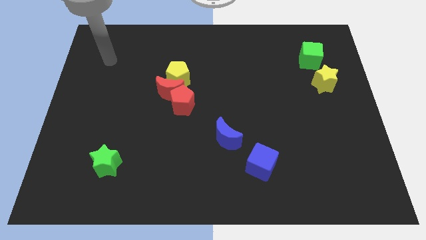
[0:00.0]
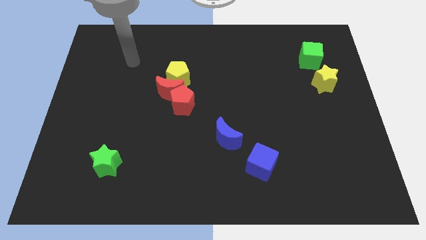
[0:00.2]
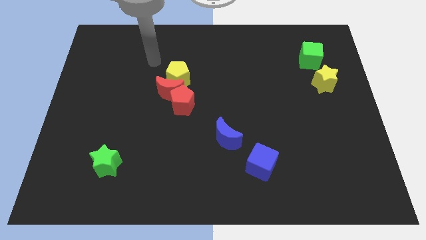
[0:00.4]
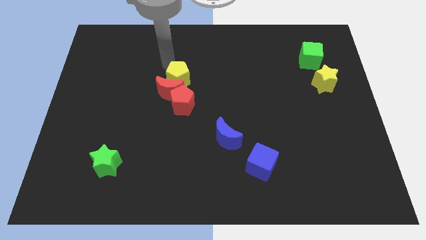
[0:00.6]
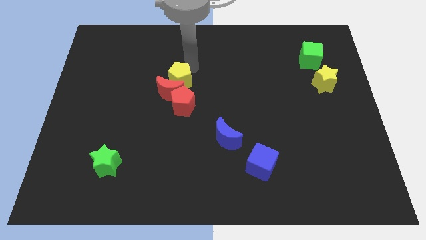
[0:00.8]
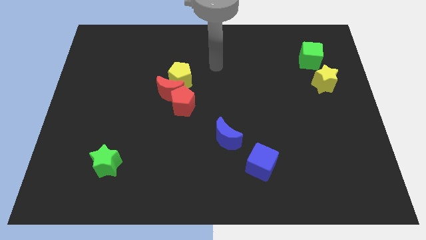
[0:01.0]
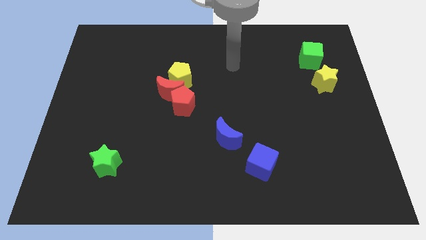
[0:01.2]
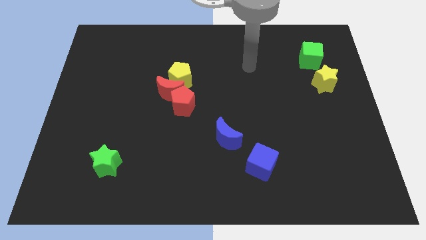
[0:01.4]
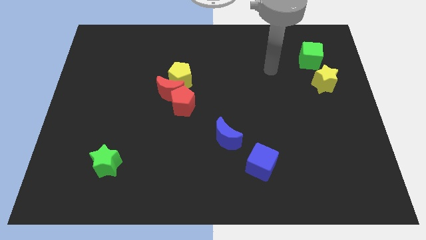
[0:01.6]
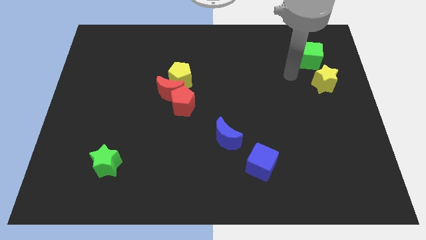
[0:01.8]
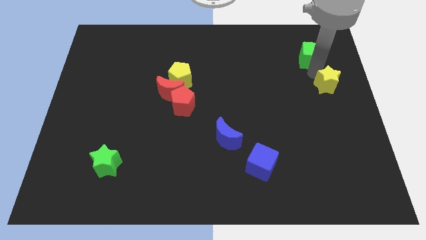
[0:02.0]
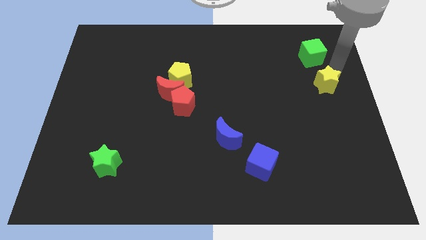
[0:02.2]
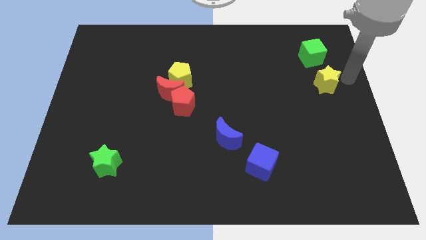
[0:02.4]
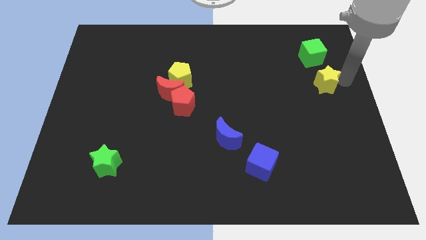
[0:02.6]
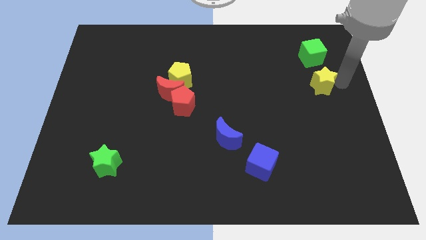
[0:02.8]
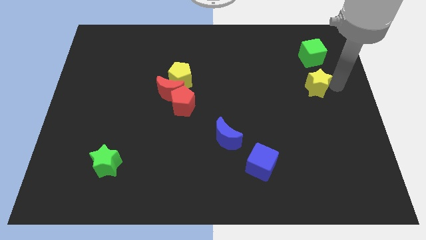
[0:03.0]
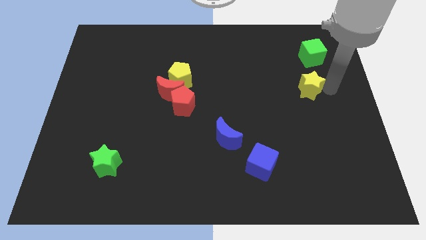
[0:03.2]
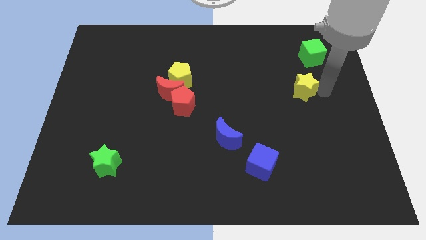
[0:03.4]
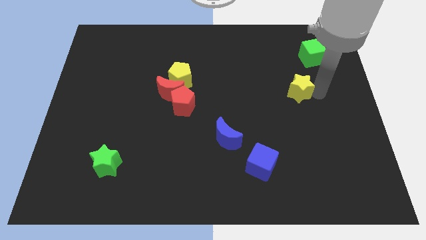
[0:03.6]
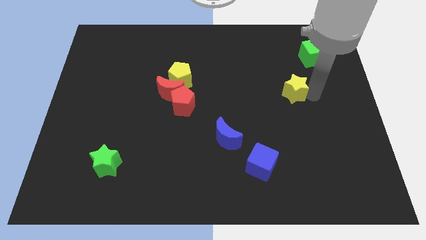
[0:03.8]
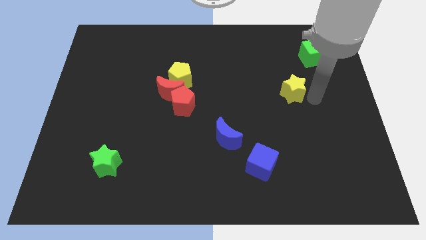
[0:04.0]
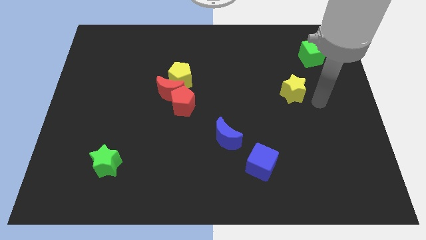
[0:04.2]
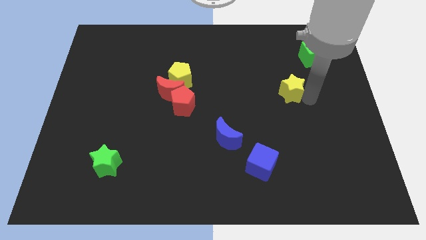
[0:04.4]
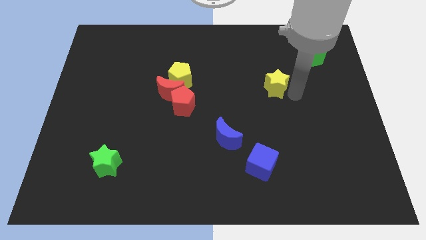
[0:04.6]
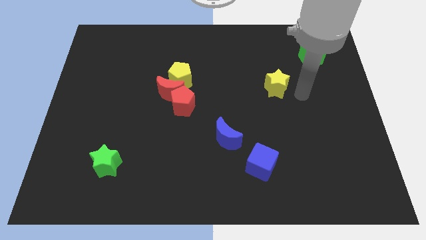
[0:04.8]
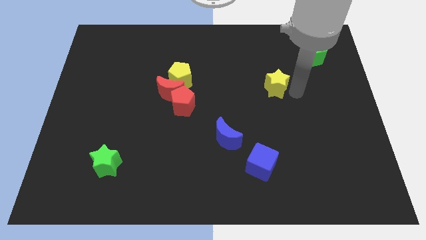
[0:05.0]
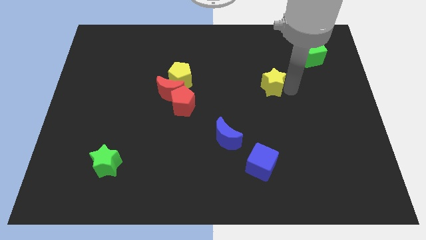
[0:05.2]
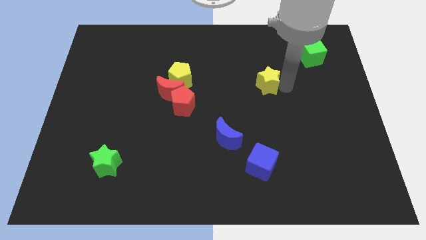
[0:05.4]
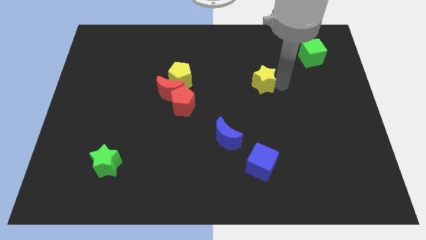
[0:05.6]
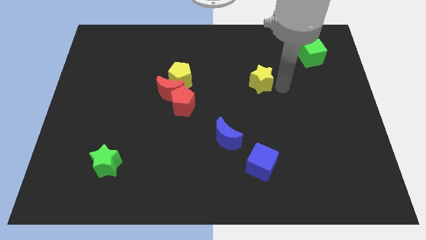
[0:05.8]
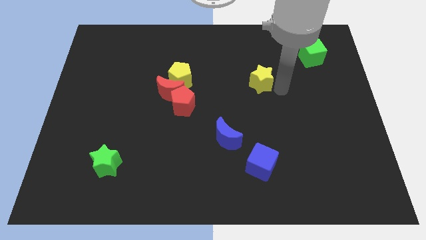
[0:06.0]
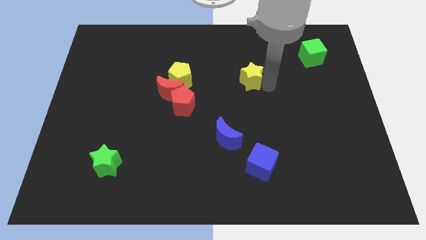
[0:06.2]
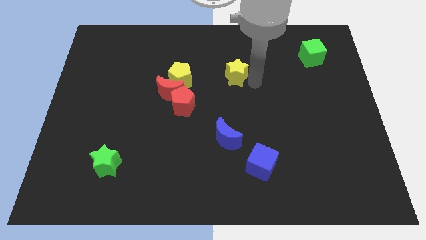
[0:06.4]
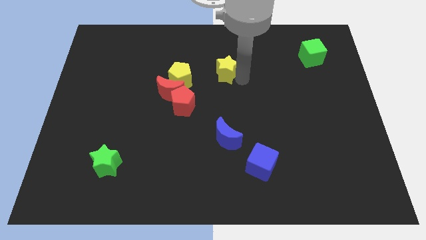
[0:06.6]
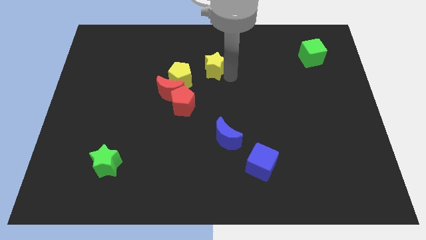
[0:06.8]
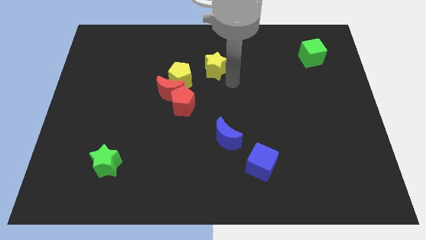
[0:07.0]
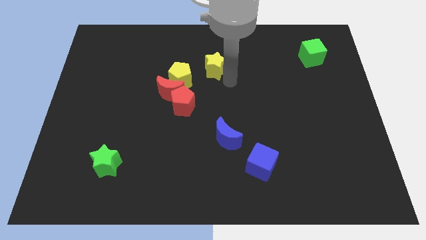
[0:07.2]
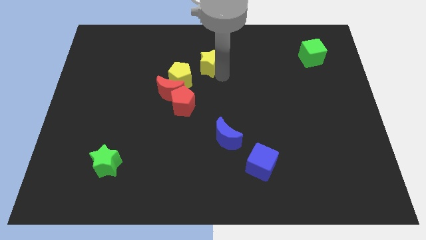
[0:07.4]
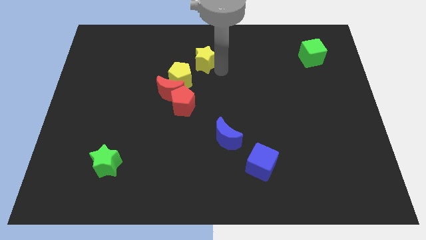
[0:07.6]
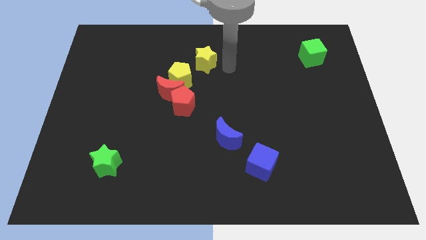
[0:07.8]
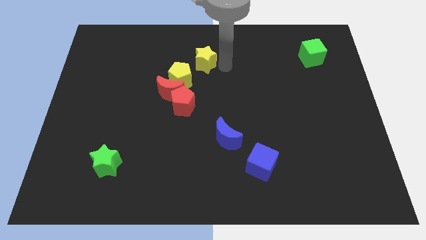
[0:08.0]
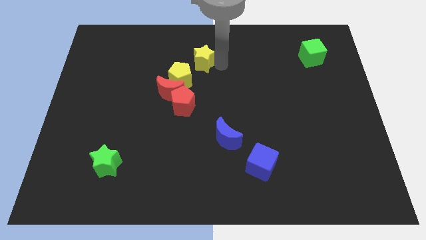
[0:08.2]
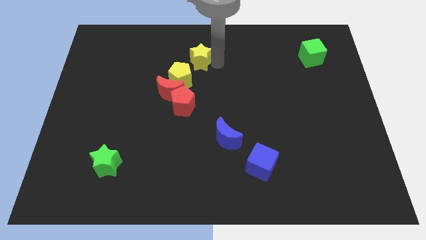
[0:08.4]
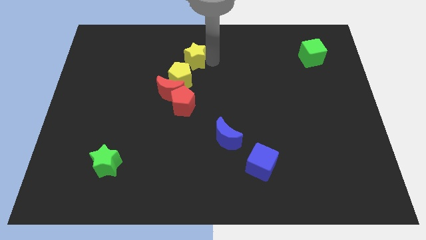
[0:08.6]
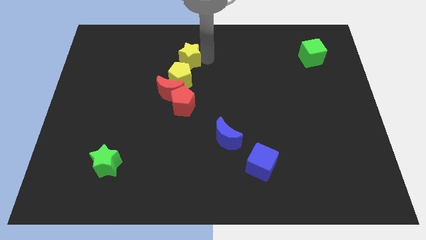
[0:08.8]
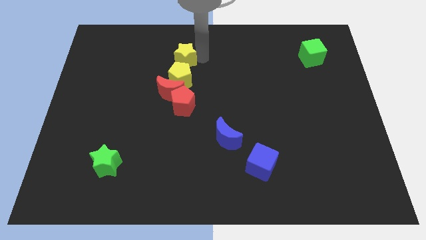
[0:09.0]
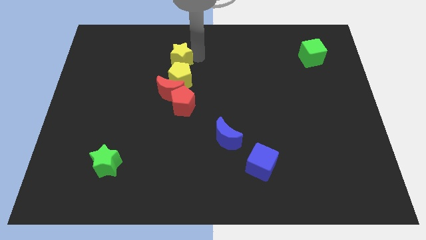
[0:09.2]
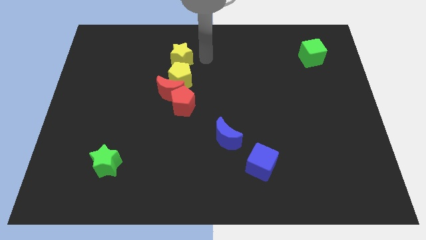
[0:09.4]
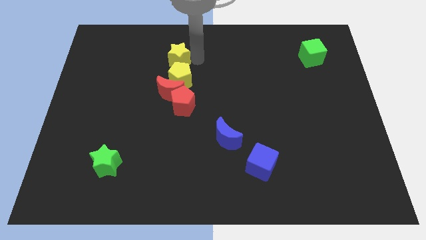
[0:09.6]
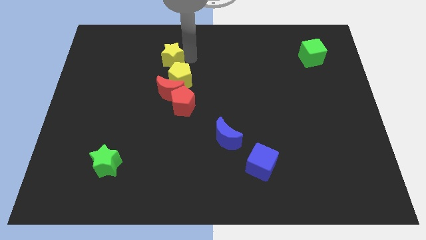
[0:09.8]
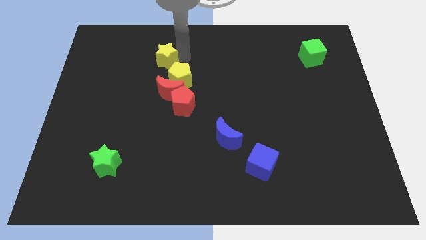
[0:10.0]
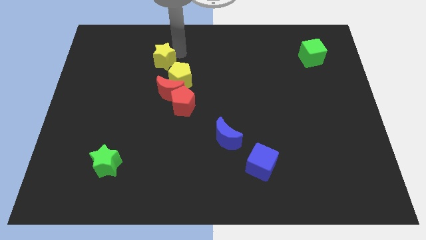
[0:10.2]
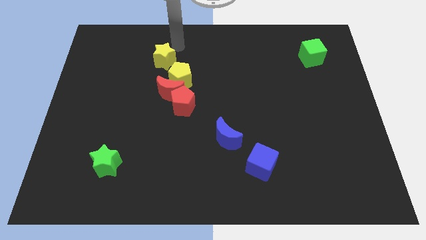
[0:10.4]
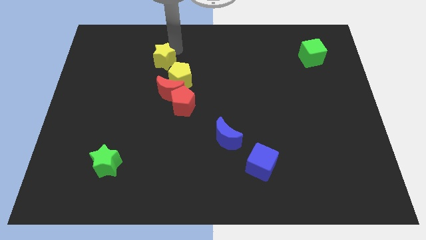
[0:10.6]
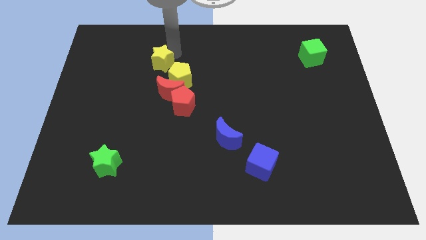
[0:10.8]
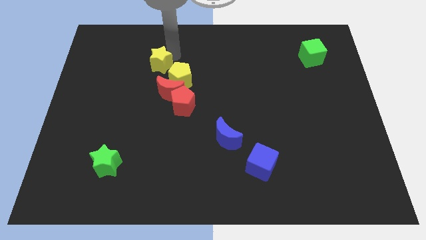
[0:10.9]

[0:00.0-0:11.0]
put the yellow star to the top left of the red moon

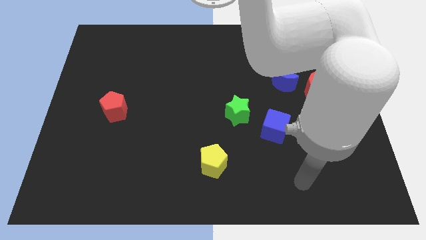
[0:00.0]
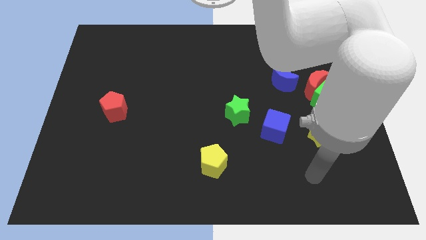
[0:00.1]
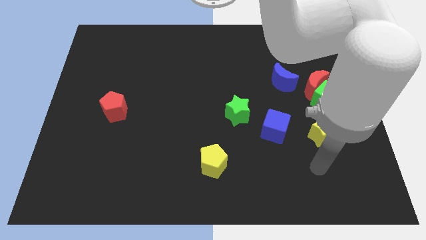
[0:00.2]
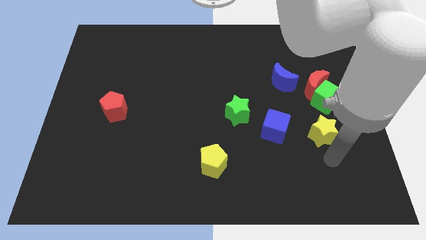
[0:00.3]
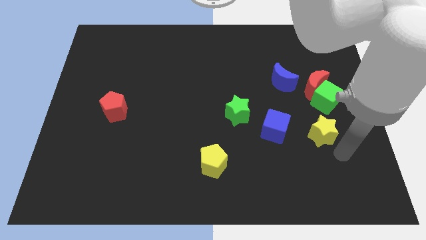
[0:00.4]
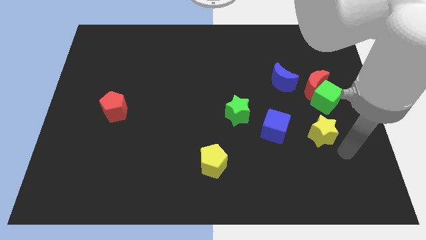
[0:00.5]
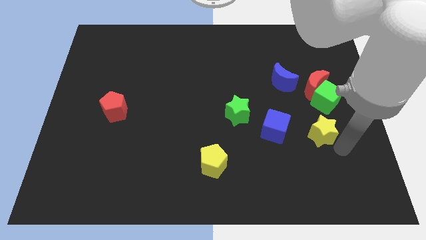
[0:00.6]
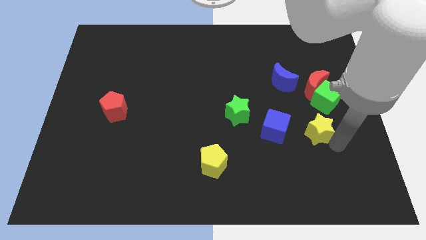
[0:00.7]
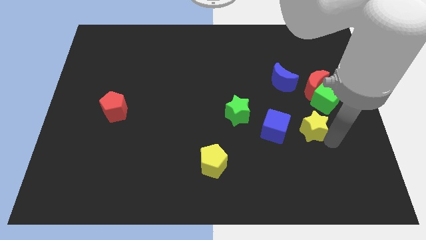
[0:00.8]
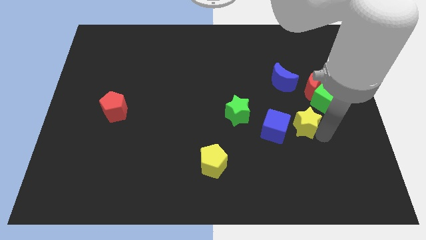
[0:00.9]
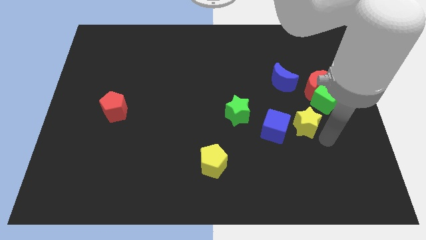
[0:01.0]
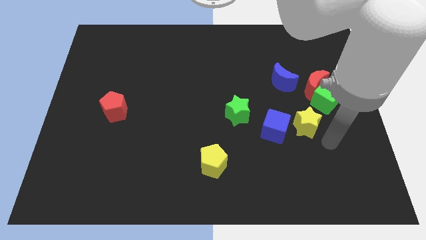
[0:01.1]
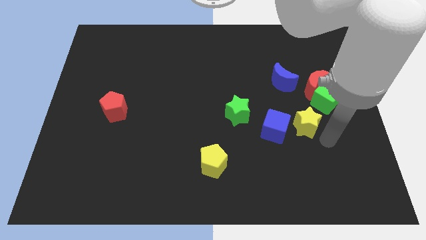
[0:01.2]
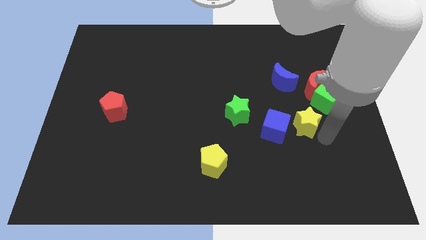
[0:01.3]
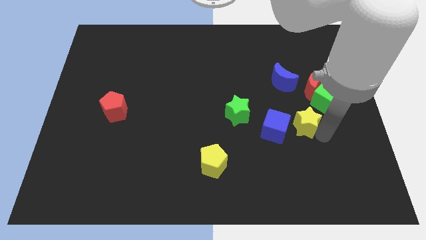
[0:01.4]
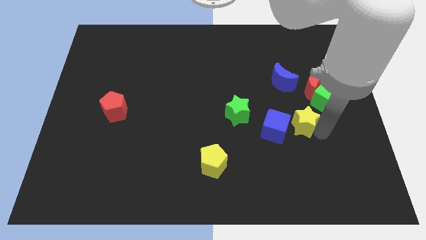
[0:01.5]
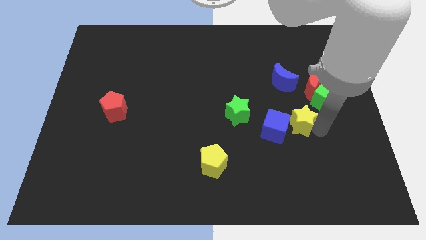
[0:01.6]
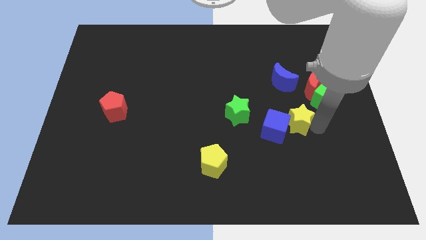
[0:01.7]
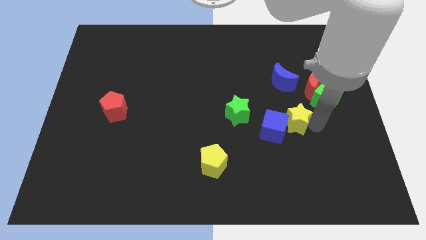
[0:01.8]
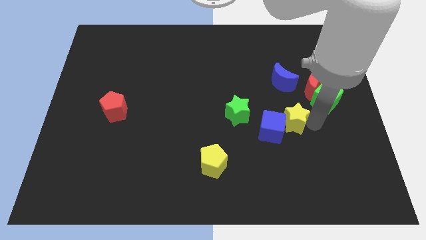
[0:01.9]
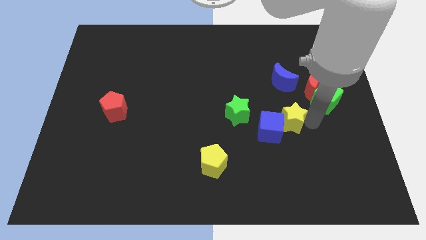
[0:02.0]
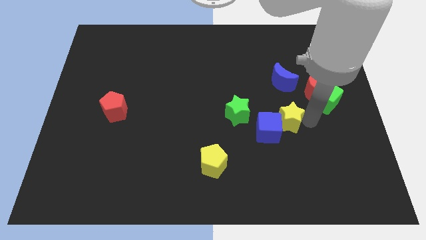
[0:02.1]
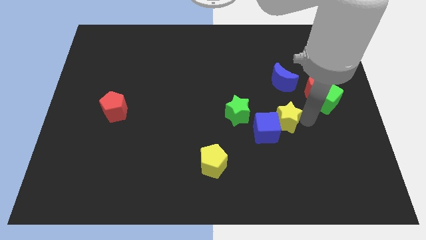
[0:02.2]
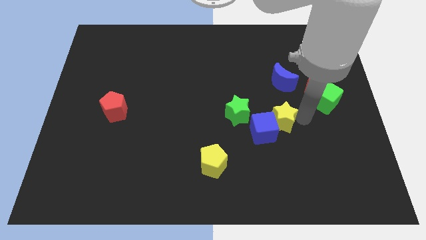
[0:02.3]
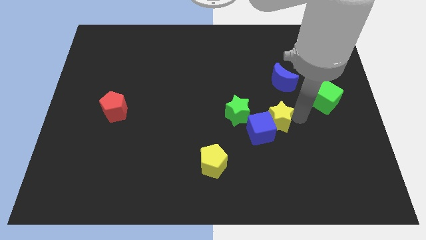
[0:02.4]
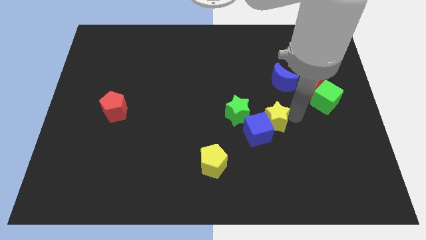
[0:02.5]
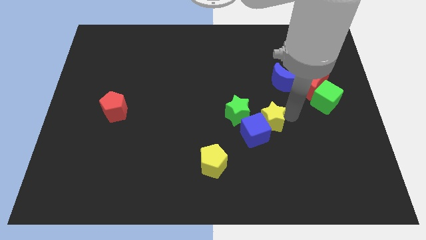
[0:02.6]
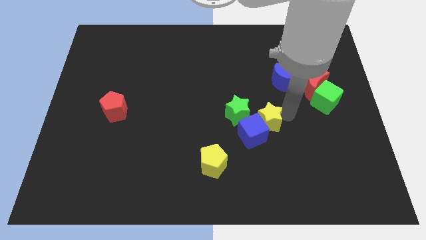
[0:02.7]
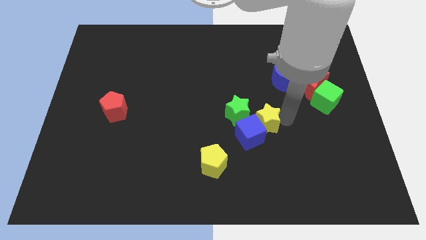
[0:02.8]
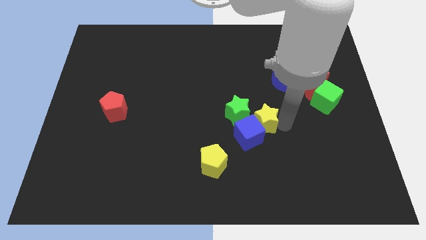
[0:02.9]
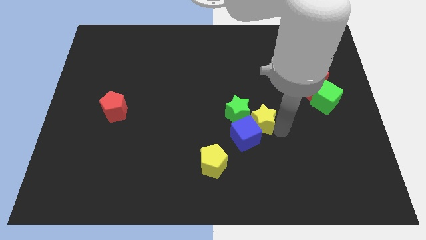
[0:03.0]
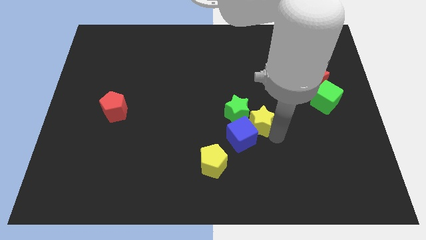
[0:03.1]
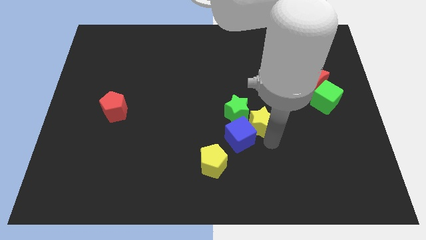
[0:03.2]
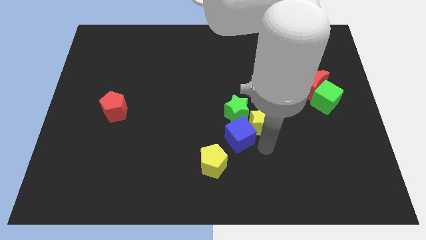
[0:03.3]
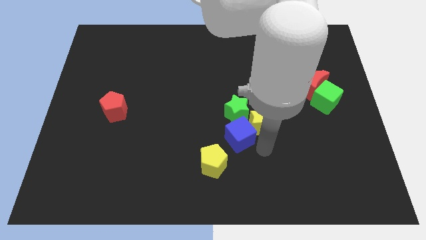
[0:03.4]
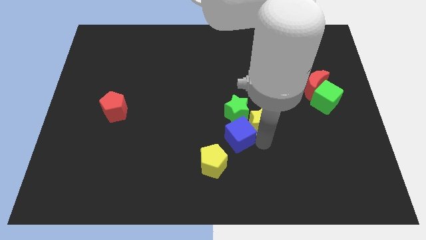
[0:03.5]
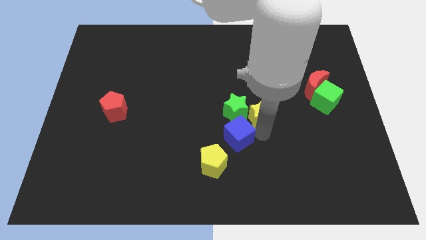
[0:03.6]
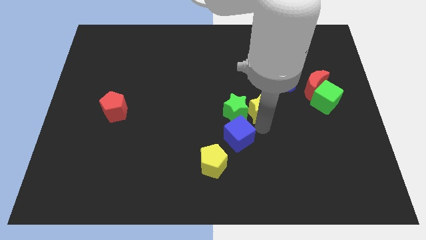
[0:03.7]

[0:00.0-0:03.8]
slide the yellow star diagonally up and to the right of the green star
